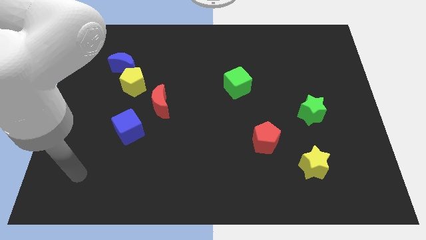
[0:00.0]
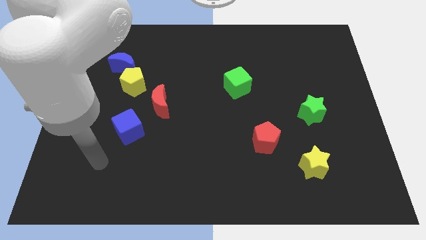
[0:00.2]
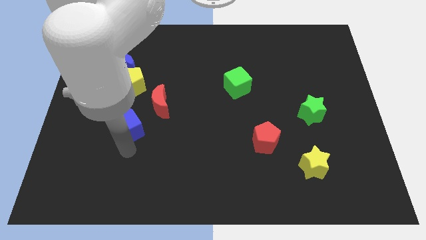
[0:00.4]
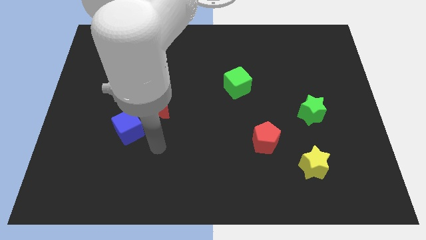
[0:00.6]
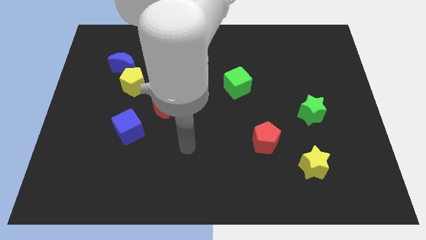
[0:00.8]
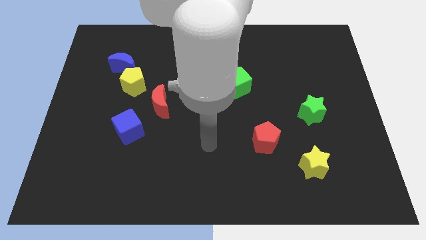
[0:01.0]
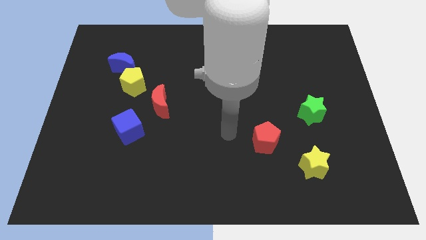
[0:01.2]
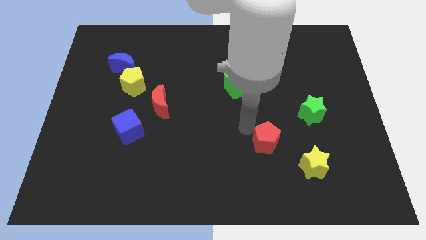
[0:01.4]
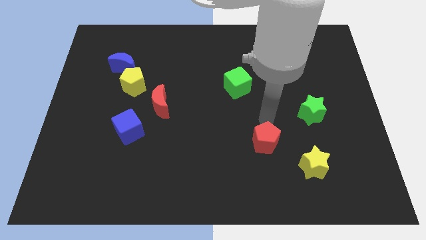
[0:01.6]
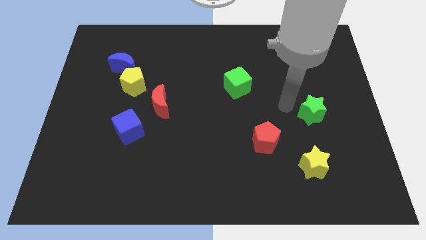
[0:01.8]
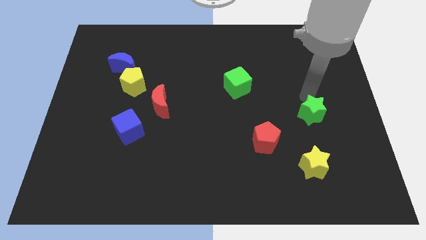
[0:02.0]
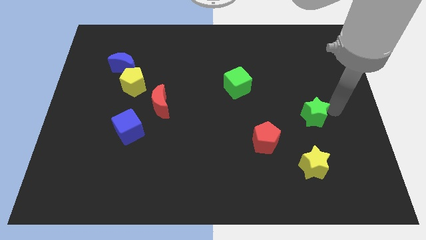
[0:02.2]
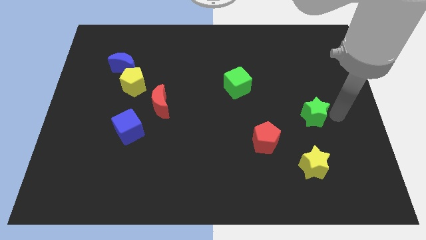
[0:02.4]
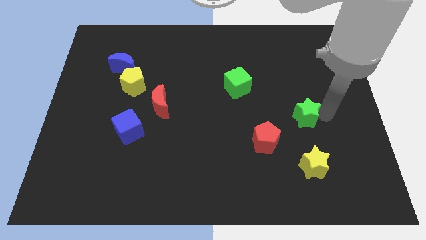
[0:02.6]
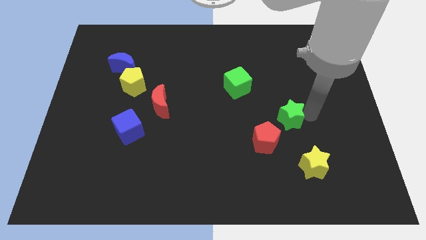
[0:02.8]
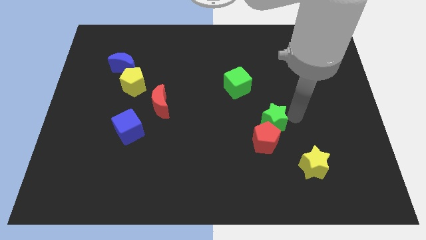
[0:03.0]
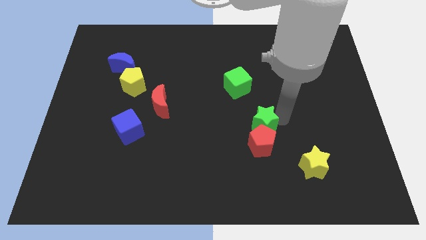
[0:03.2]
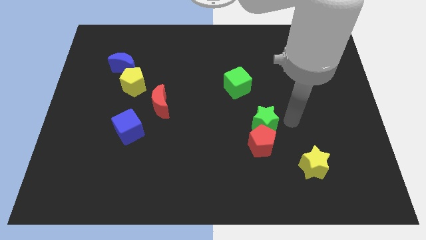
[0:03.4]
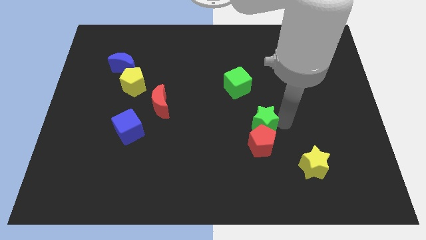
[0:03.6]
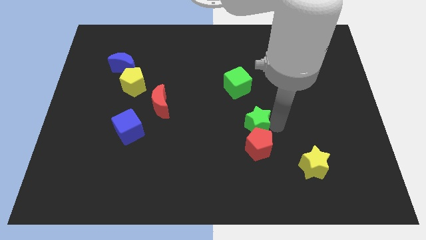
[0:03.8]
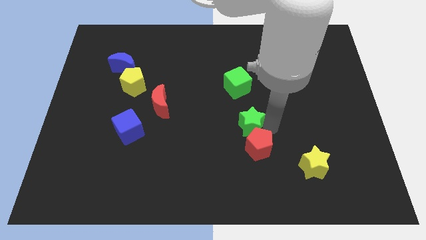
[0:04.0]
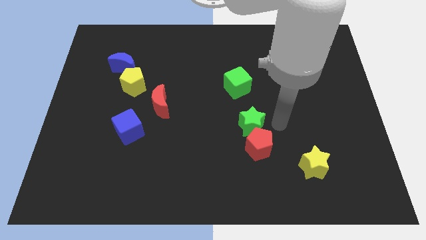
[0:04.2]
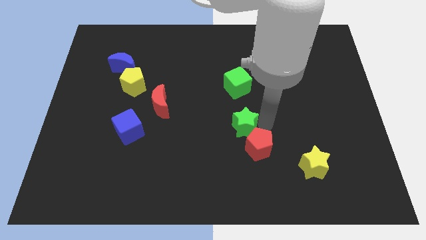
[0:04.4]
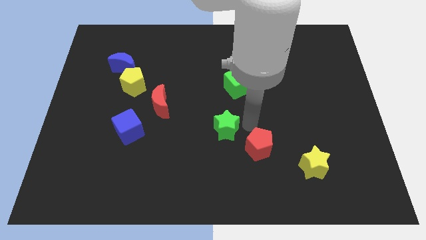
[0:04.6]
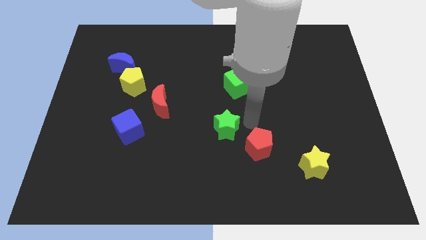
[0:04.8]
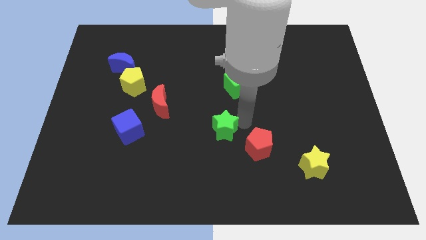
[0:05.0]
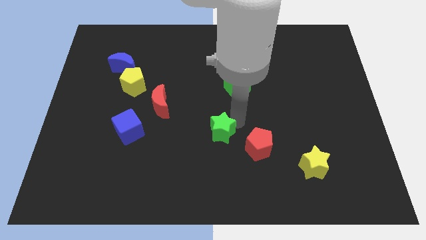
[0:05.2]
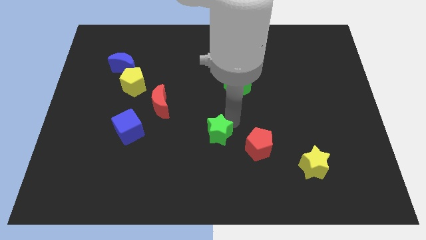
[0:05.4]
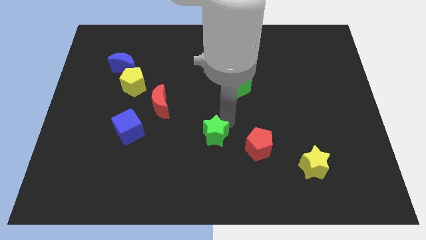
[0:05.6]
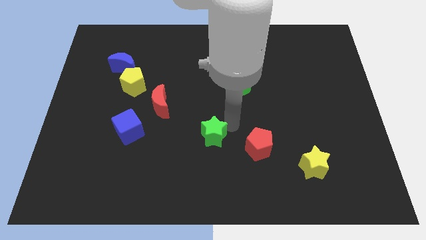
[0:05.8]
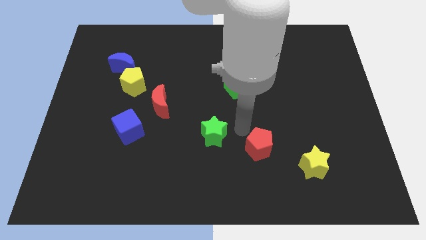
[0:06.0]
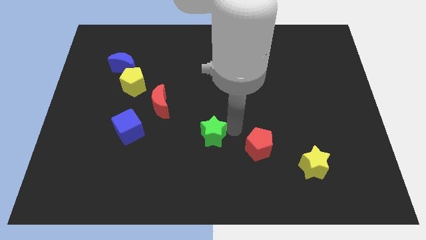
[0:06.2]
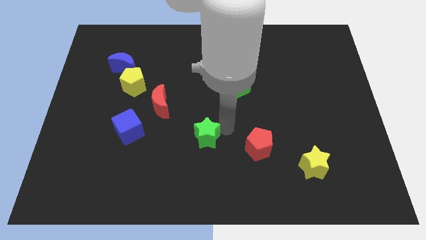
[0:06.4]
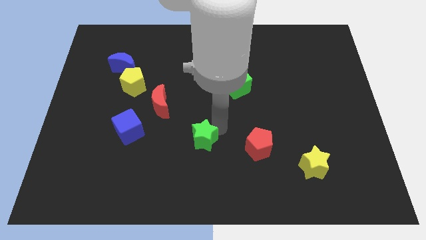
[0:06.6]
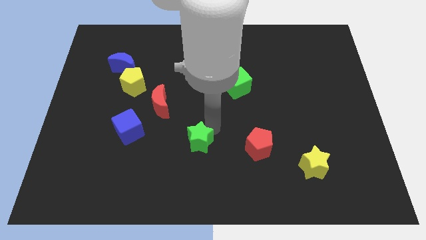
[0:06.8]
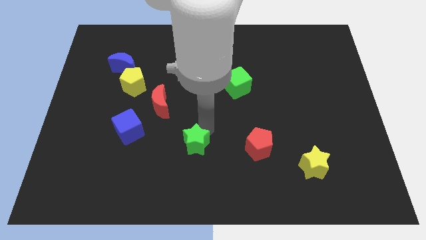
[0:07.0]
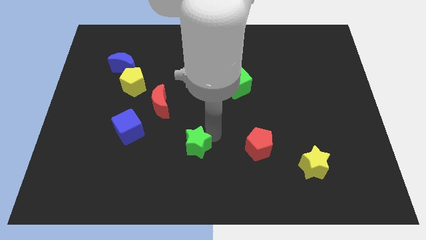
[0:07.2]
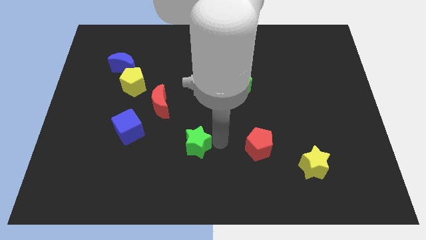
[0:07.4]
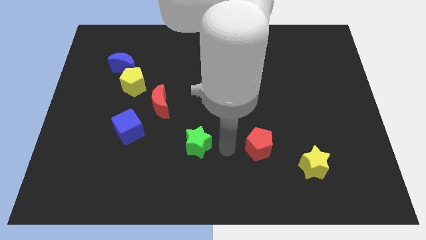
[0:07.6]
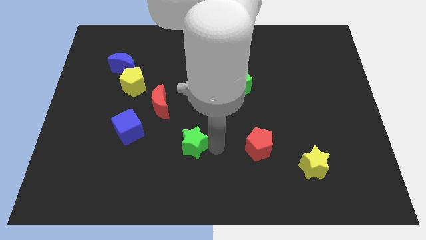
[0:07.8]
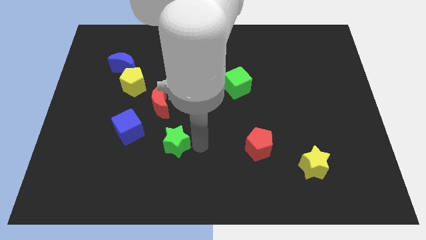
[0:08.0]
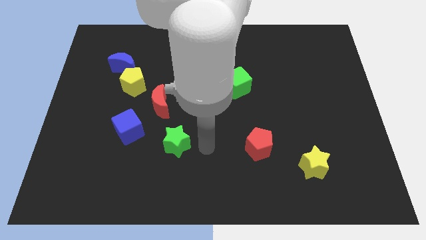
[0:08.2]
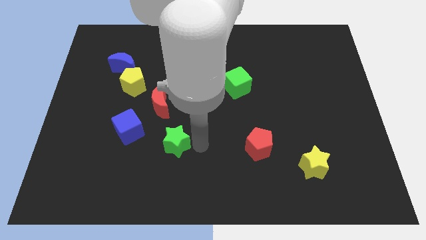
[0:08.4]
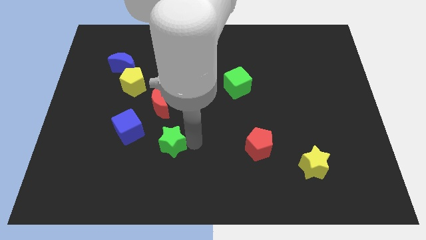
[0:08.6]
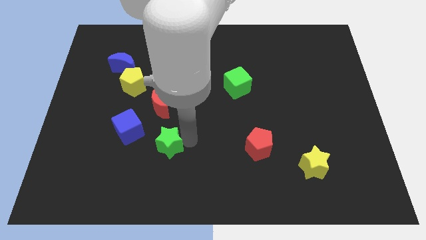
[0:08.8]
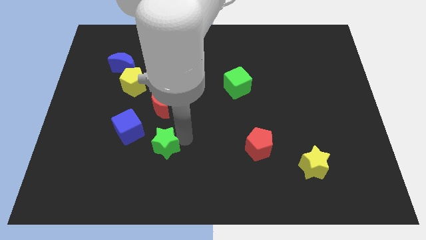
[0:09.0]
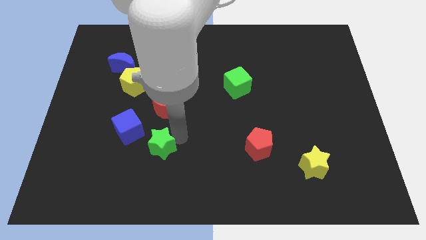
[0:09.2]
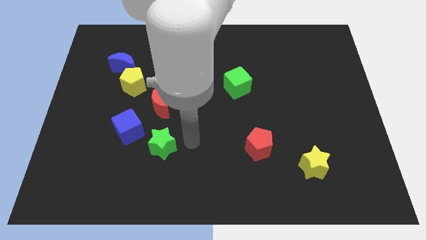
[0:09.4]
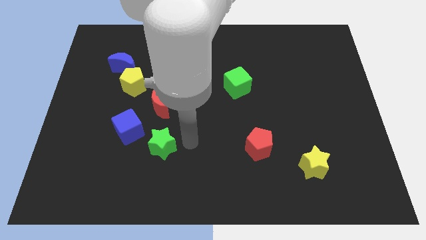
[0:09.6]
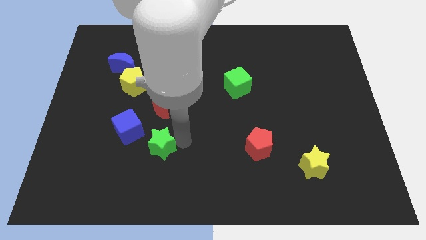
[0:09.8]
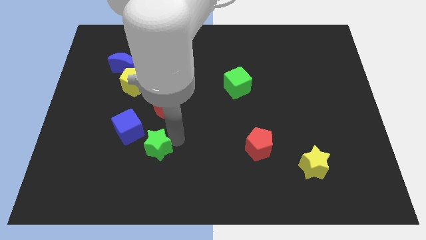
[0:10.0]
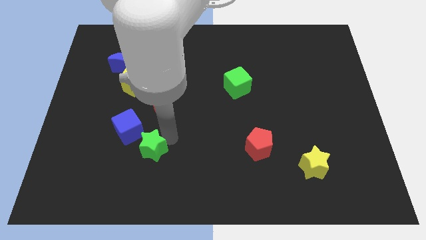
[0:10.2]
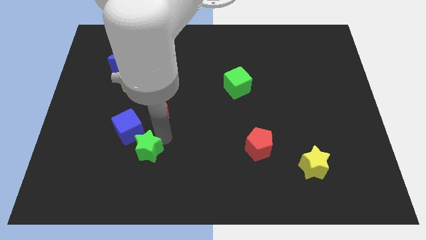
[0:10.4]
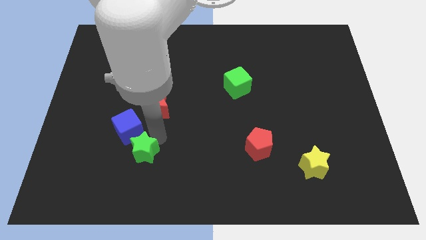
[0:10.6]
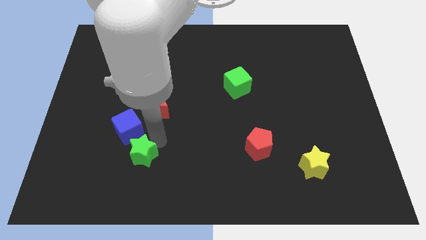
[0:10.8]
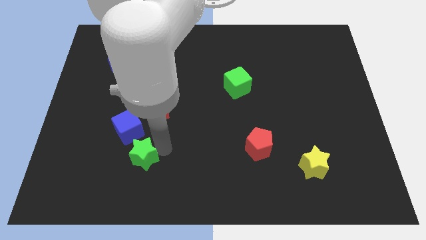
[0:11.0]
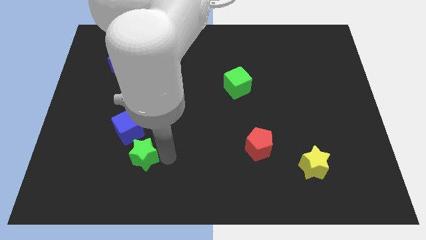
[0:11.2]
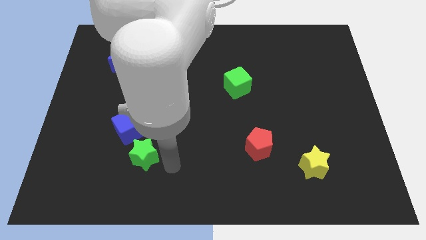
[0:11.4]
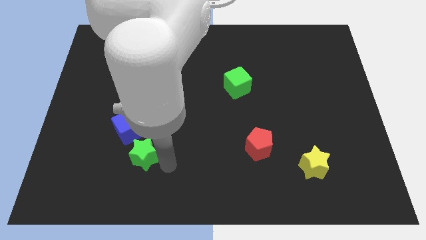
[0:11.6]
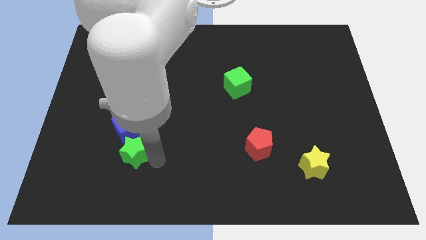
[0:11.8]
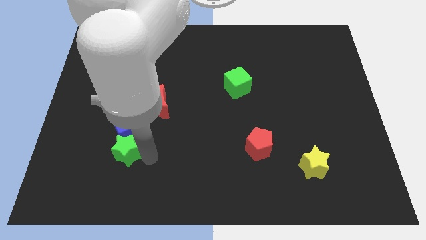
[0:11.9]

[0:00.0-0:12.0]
slide the green star diagonally down and to the left of the blue cube

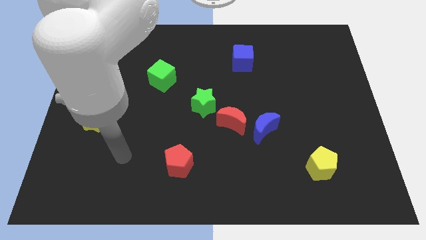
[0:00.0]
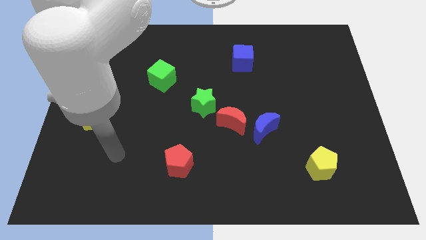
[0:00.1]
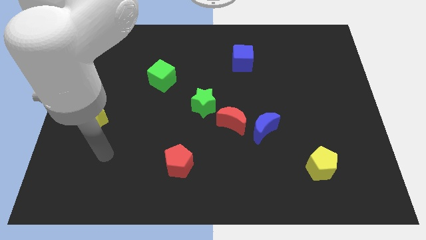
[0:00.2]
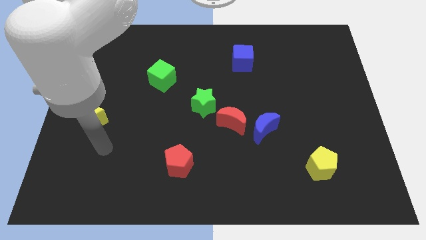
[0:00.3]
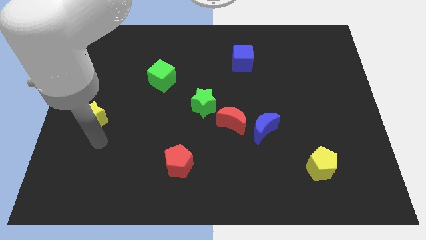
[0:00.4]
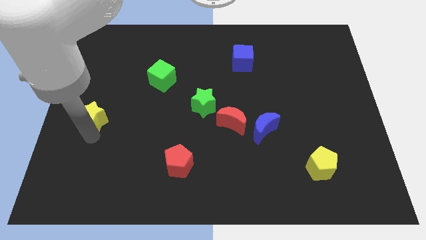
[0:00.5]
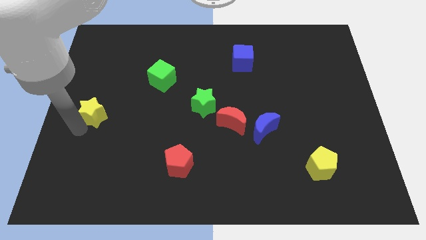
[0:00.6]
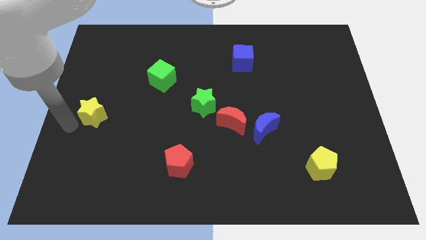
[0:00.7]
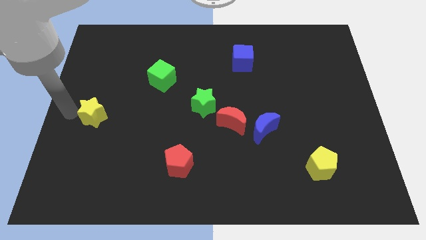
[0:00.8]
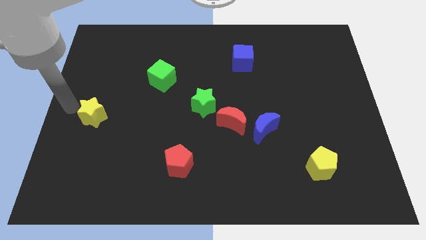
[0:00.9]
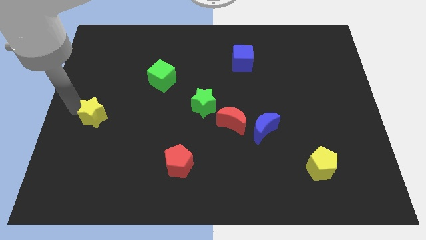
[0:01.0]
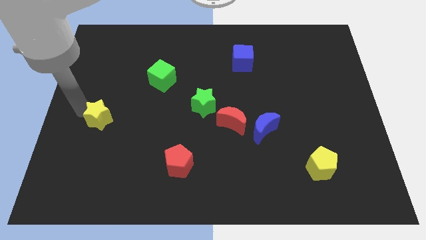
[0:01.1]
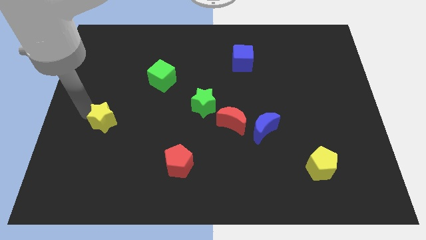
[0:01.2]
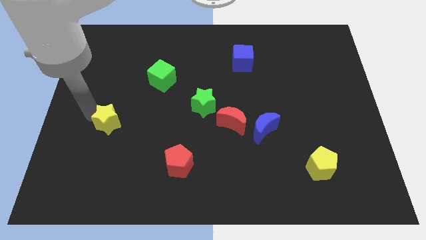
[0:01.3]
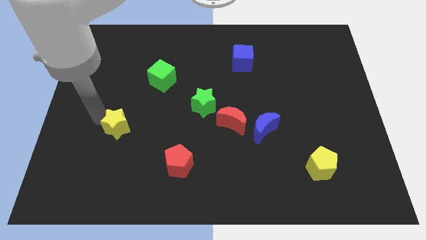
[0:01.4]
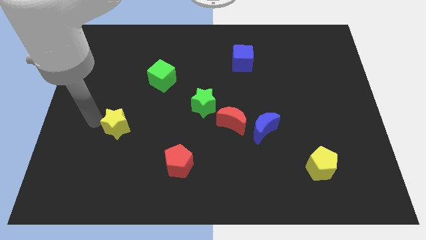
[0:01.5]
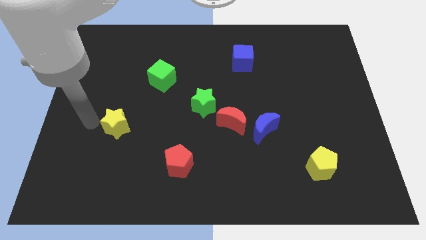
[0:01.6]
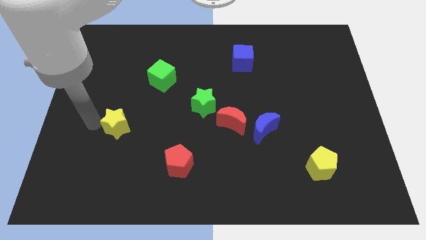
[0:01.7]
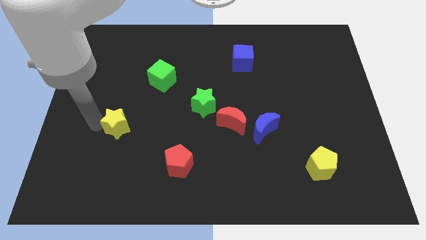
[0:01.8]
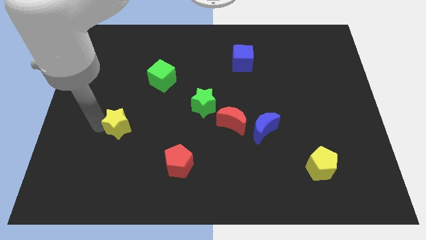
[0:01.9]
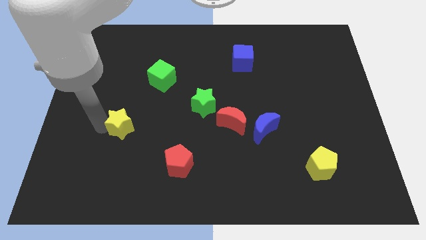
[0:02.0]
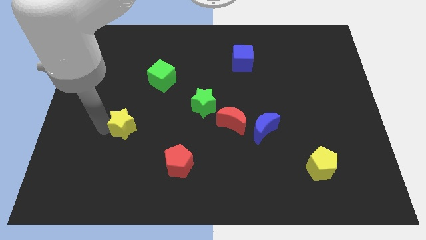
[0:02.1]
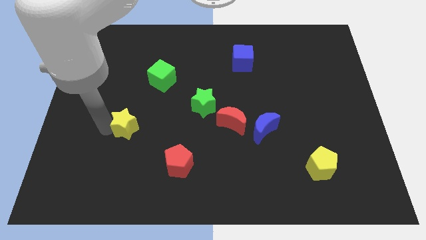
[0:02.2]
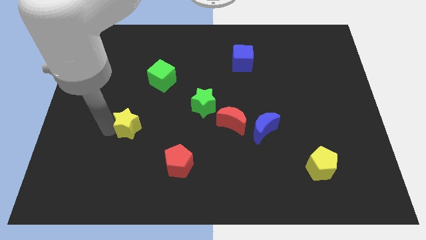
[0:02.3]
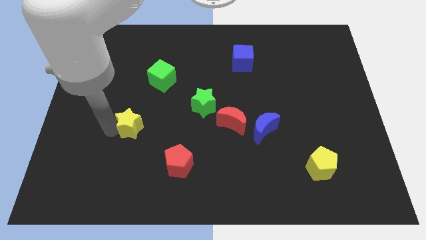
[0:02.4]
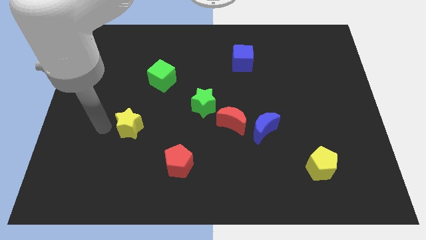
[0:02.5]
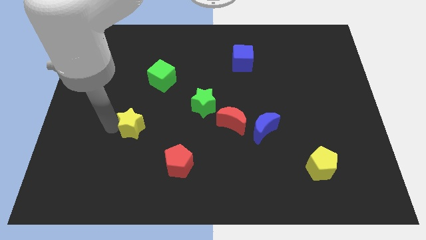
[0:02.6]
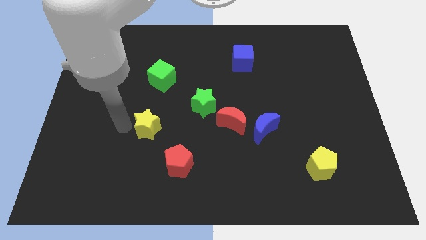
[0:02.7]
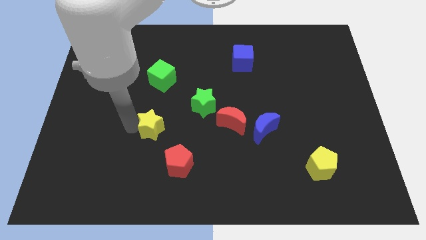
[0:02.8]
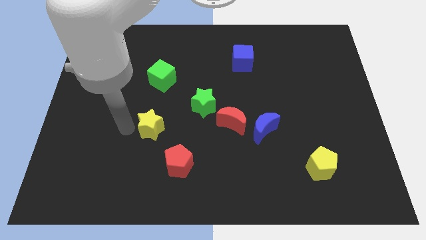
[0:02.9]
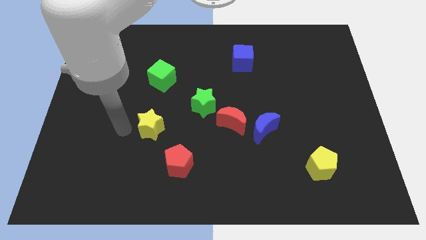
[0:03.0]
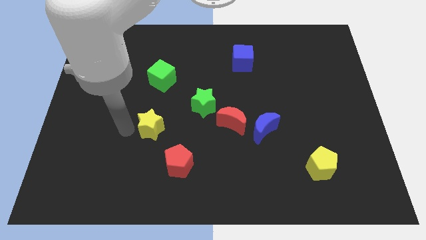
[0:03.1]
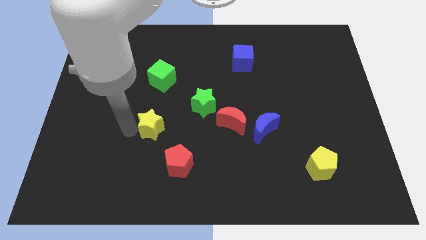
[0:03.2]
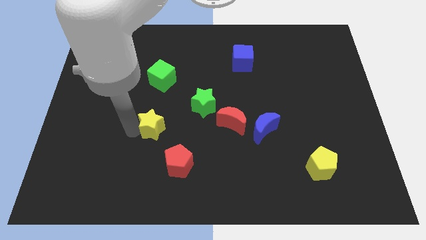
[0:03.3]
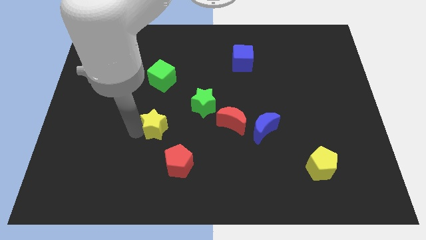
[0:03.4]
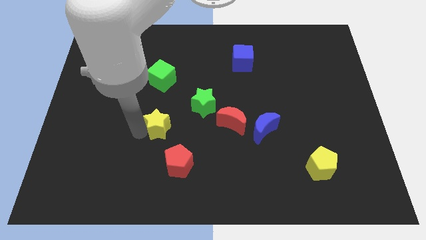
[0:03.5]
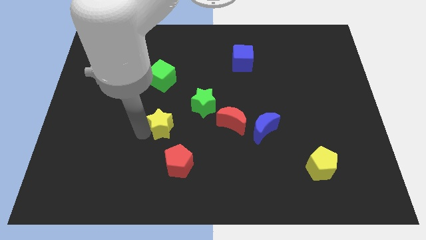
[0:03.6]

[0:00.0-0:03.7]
slide the yellow star above the red pentagon
